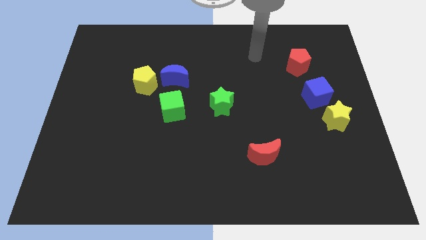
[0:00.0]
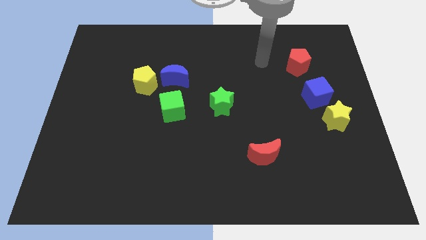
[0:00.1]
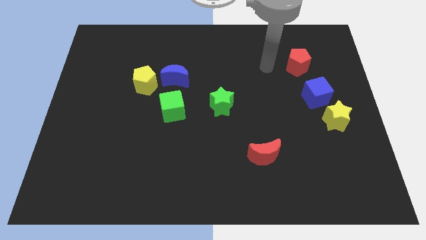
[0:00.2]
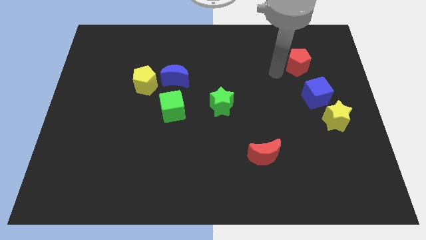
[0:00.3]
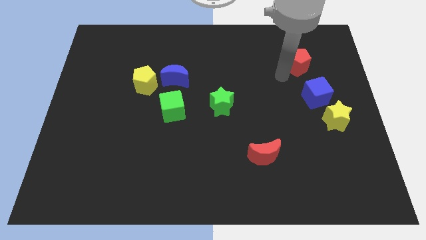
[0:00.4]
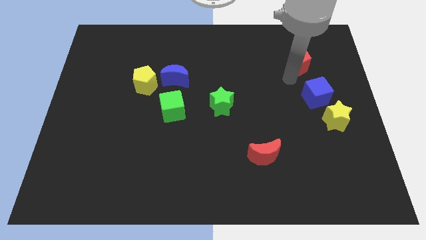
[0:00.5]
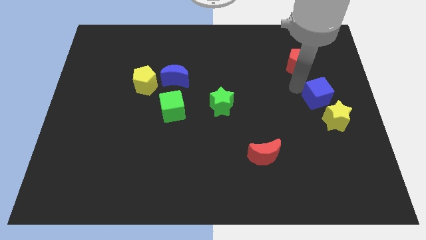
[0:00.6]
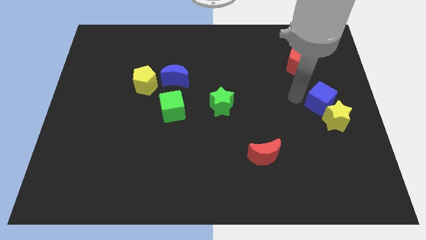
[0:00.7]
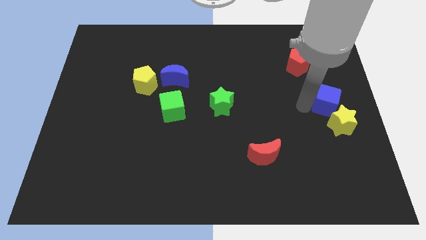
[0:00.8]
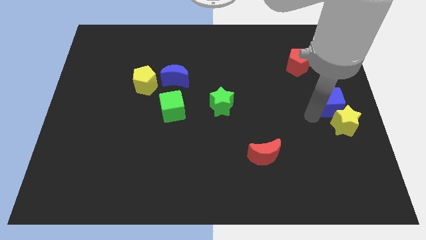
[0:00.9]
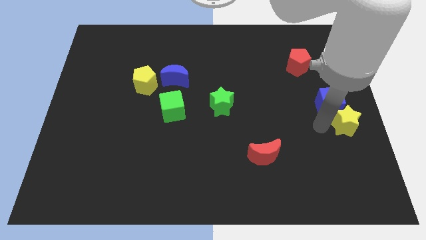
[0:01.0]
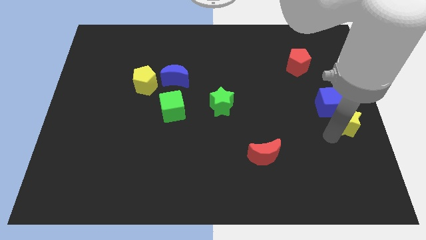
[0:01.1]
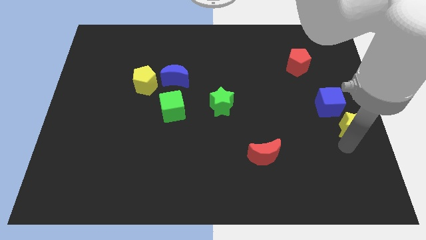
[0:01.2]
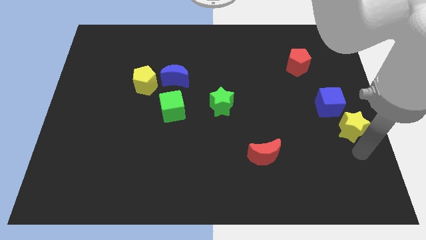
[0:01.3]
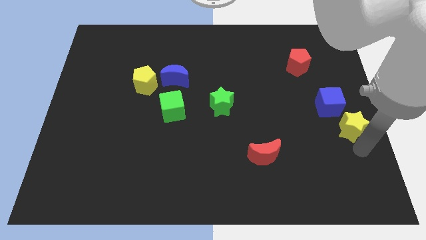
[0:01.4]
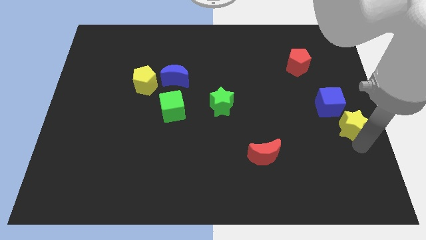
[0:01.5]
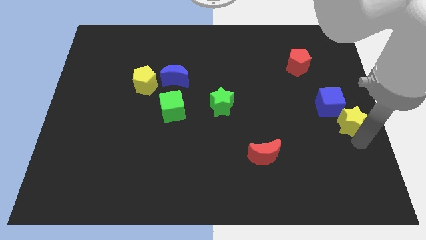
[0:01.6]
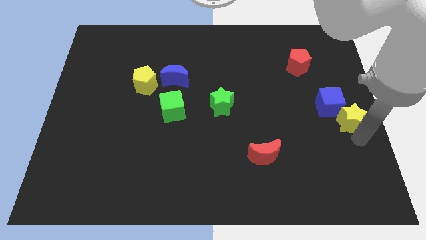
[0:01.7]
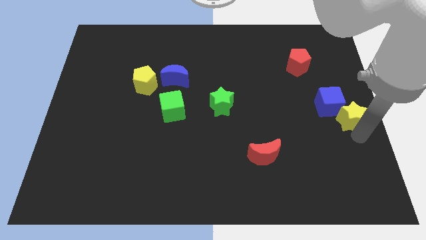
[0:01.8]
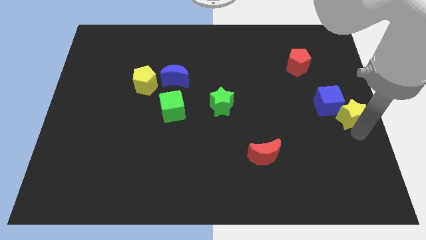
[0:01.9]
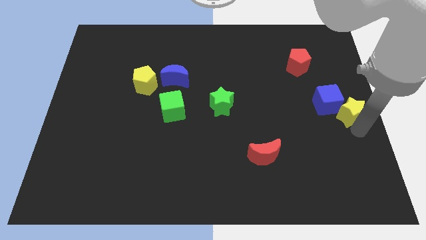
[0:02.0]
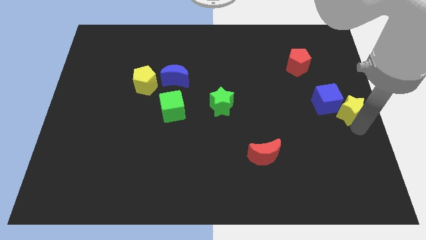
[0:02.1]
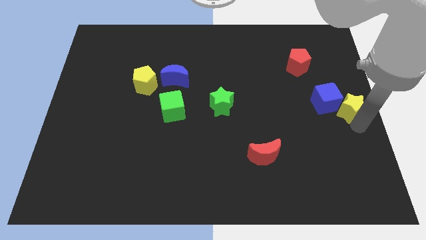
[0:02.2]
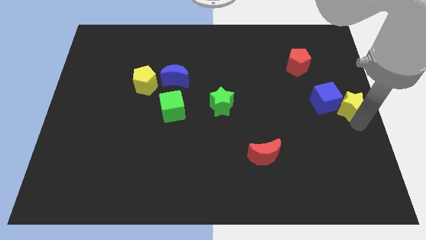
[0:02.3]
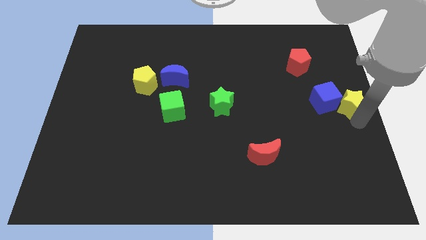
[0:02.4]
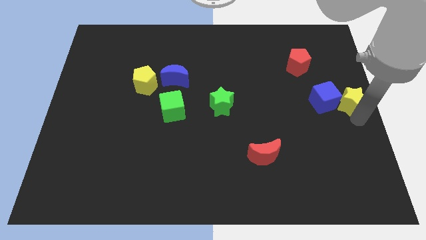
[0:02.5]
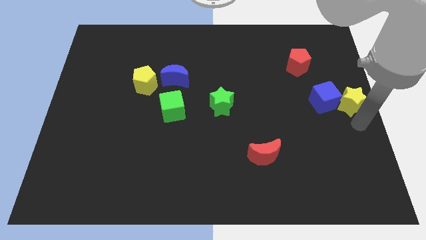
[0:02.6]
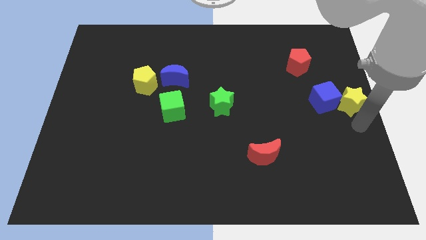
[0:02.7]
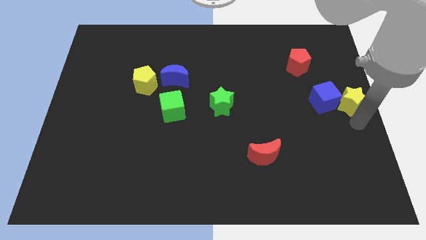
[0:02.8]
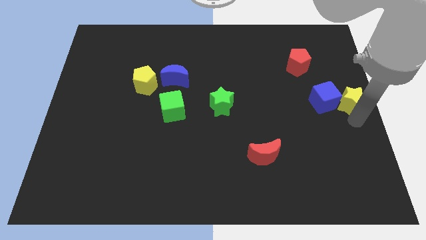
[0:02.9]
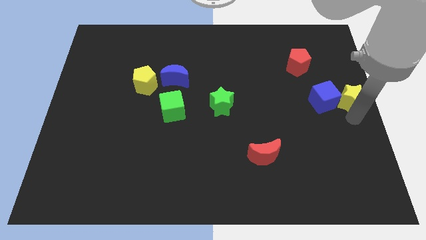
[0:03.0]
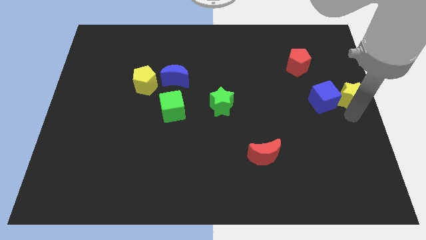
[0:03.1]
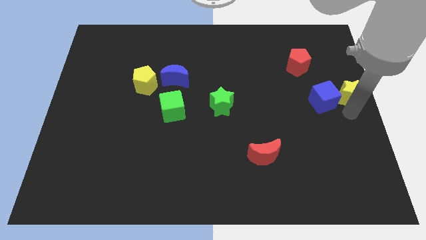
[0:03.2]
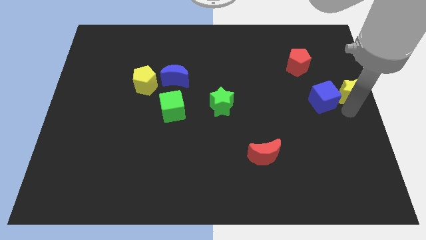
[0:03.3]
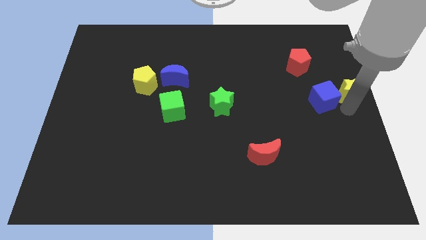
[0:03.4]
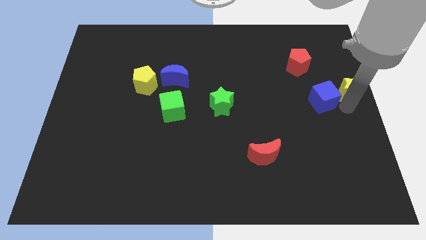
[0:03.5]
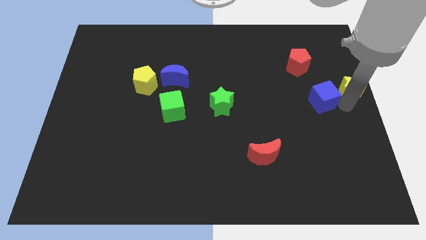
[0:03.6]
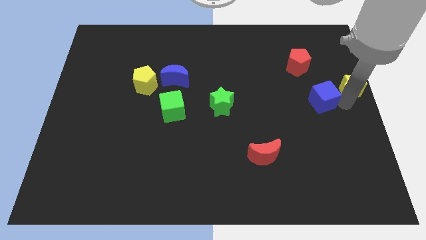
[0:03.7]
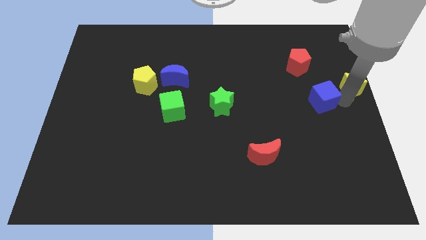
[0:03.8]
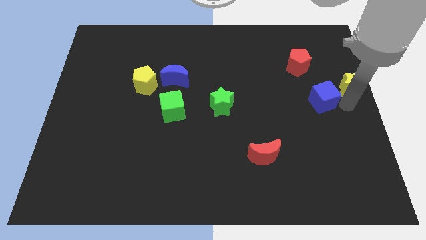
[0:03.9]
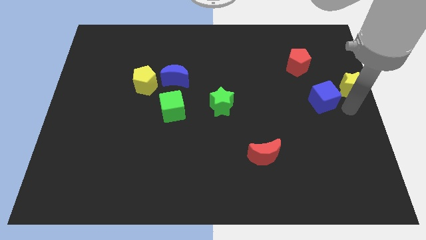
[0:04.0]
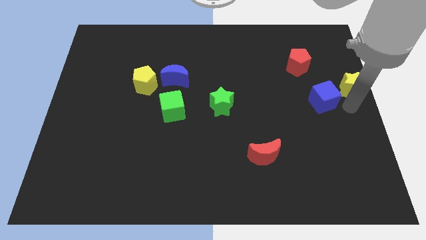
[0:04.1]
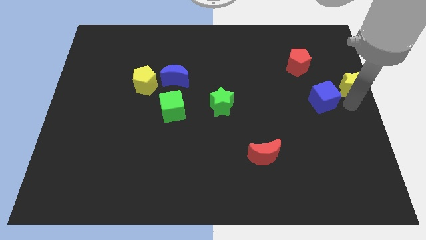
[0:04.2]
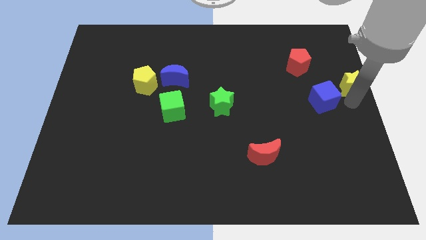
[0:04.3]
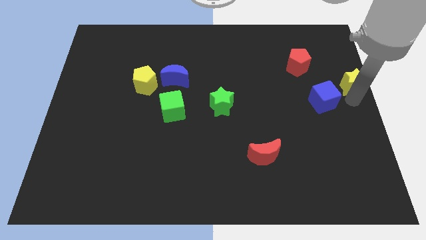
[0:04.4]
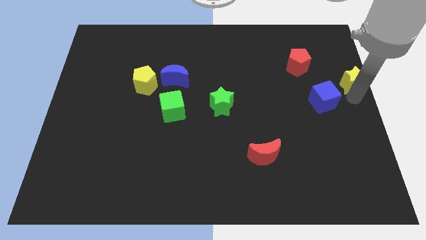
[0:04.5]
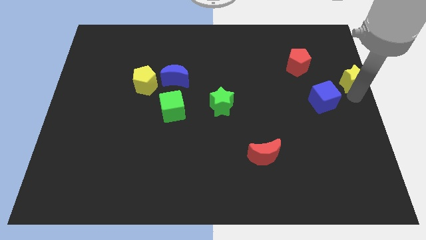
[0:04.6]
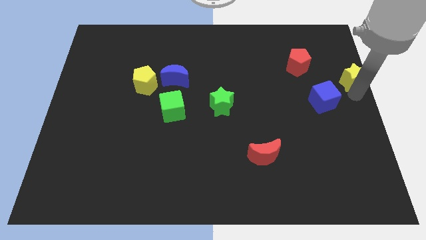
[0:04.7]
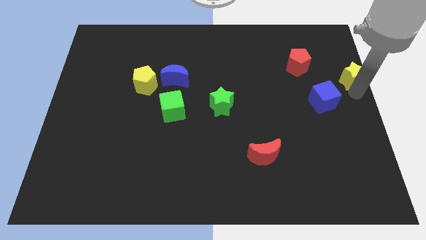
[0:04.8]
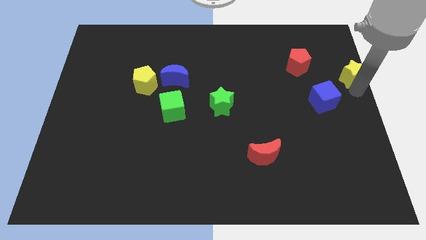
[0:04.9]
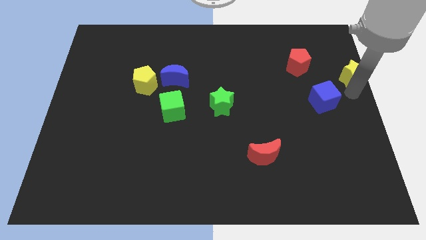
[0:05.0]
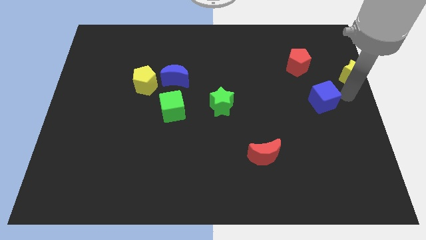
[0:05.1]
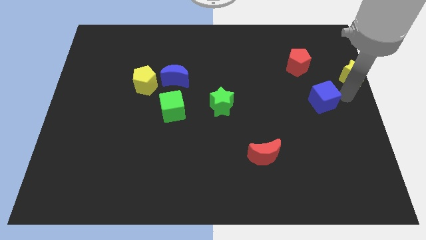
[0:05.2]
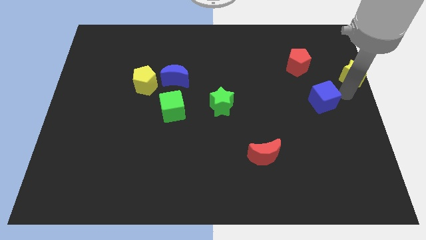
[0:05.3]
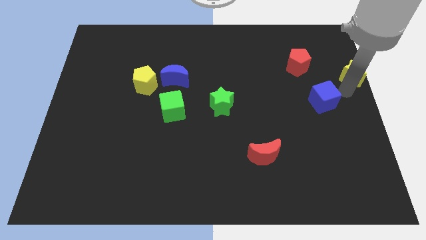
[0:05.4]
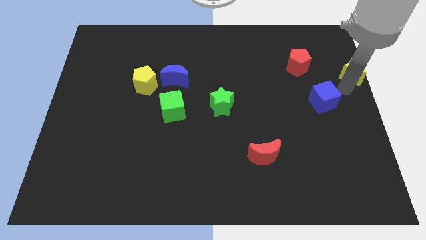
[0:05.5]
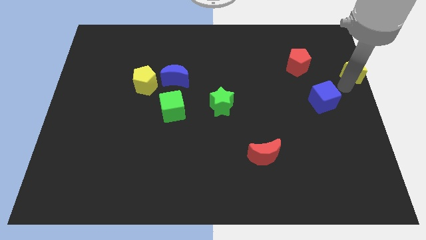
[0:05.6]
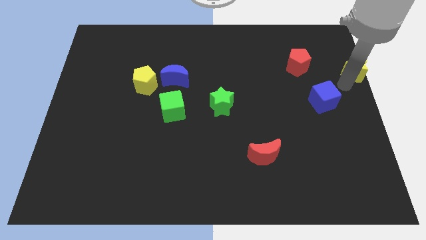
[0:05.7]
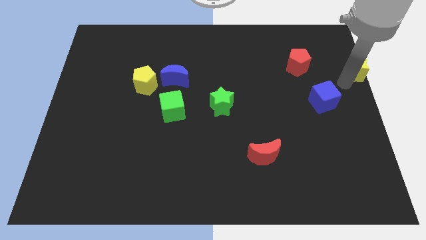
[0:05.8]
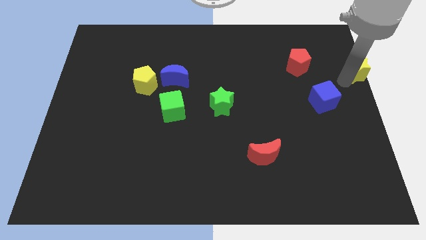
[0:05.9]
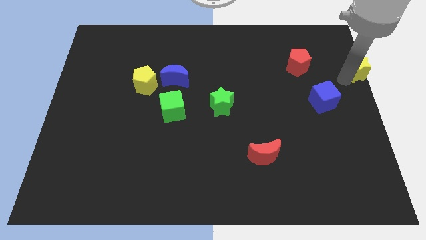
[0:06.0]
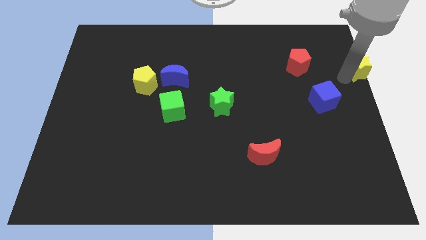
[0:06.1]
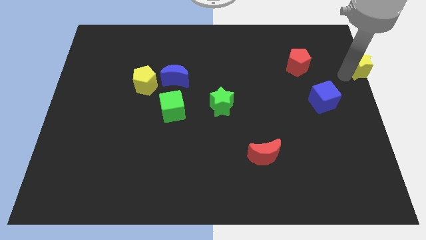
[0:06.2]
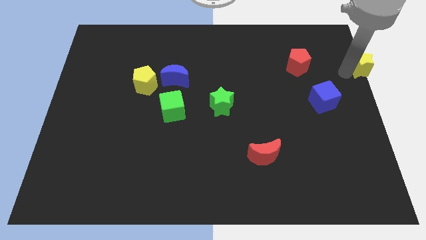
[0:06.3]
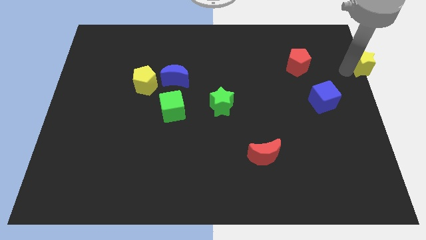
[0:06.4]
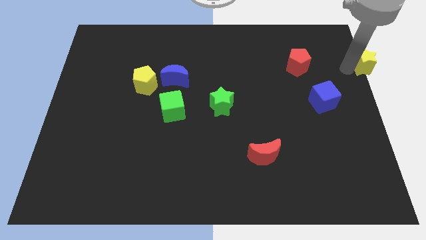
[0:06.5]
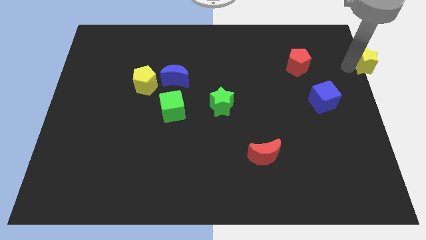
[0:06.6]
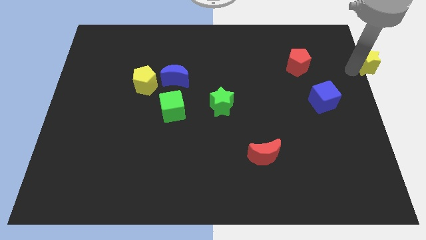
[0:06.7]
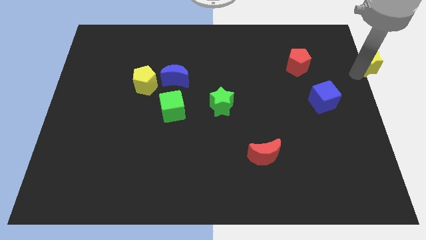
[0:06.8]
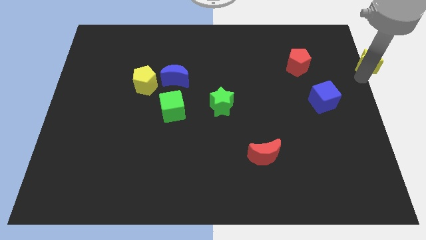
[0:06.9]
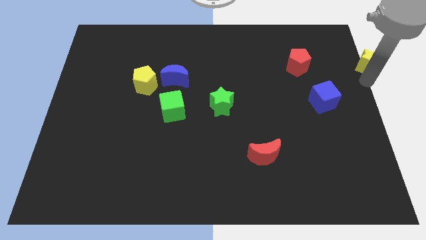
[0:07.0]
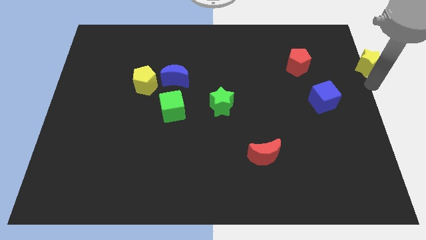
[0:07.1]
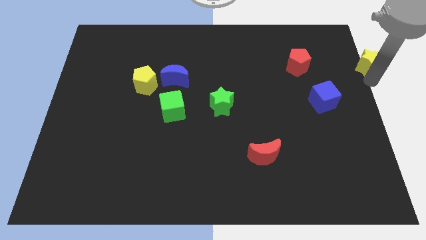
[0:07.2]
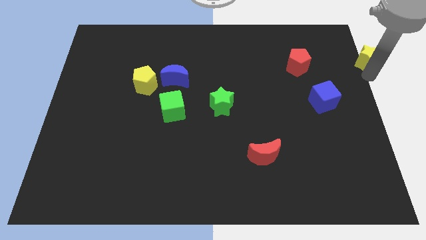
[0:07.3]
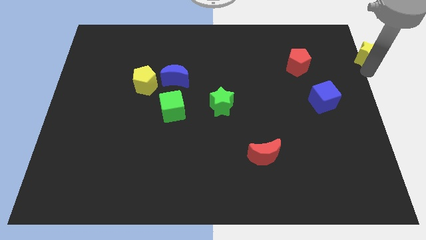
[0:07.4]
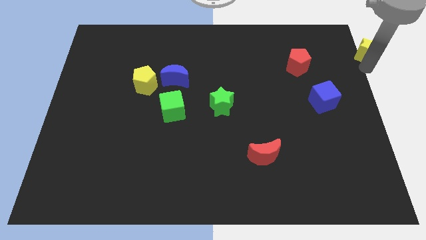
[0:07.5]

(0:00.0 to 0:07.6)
slide the yellow star to the top right corner
